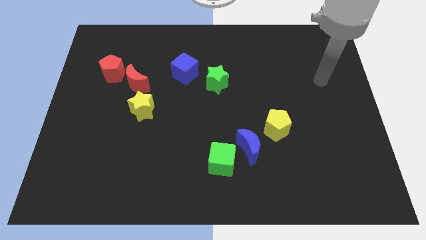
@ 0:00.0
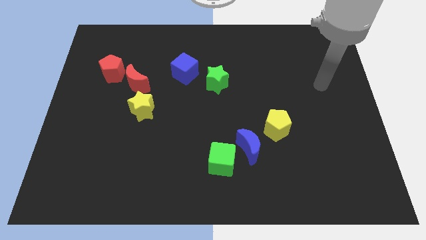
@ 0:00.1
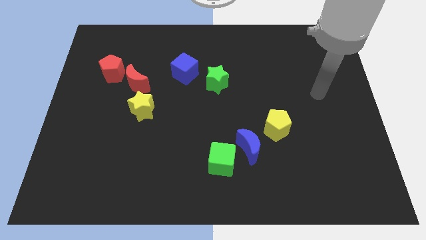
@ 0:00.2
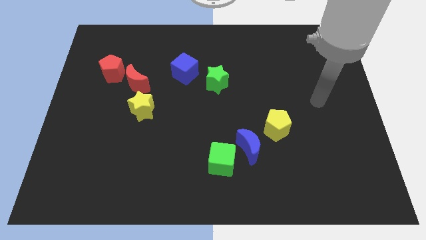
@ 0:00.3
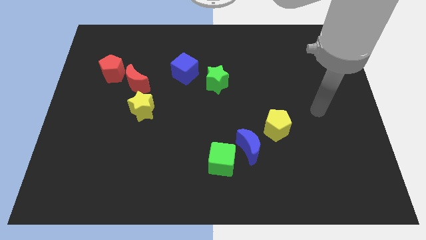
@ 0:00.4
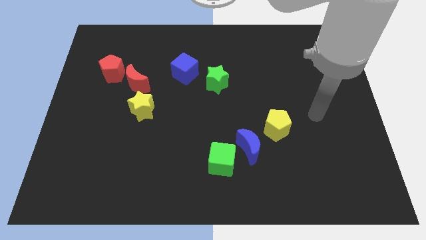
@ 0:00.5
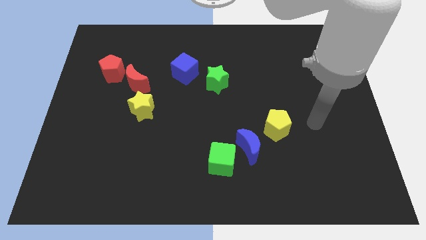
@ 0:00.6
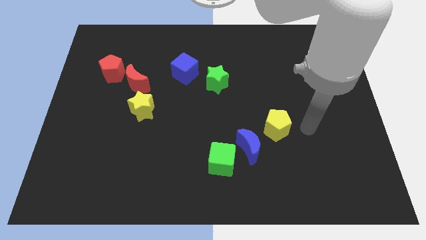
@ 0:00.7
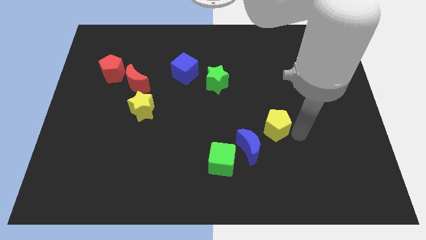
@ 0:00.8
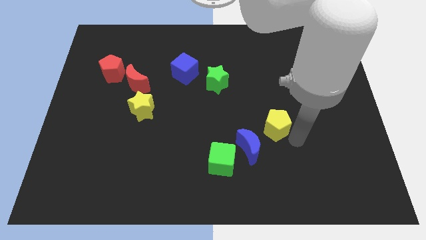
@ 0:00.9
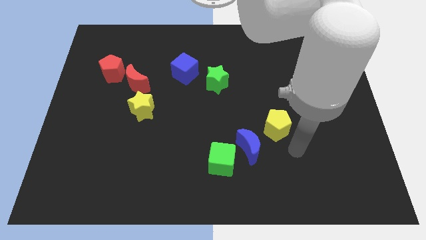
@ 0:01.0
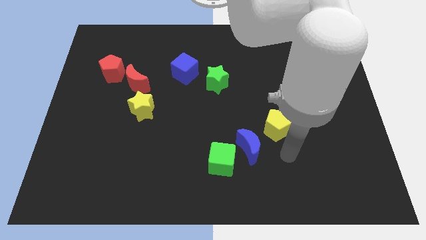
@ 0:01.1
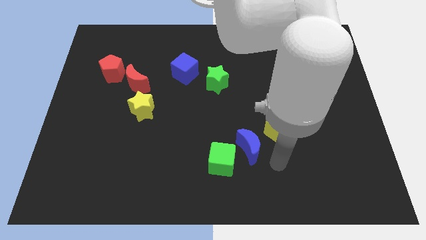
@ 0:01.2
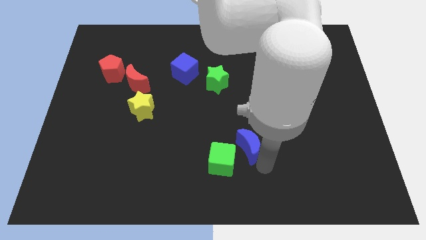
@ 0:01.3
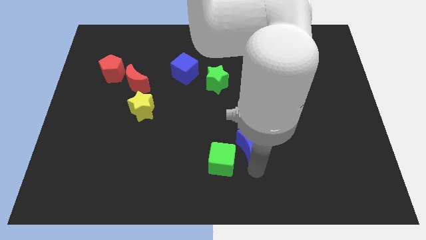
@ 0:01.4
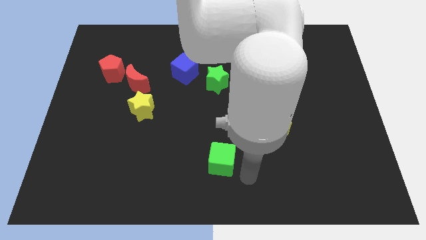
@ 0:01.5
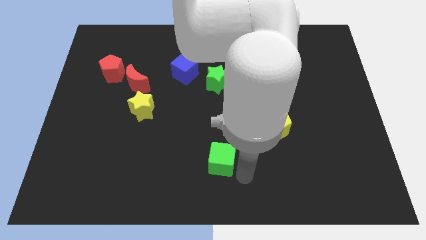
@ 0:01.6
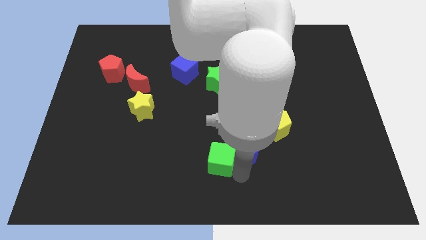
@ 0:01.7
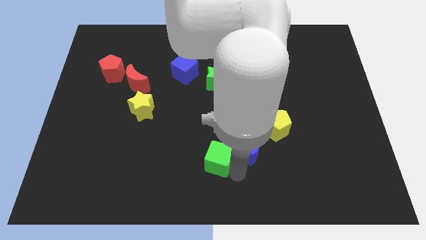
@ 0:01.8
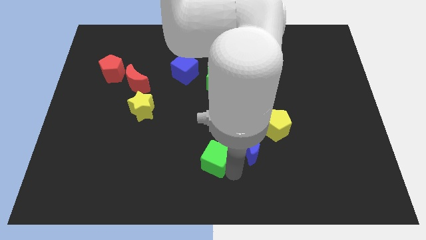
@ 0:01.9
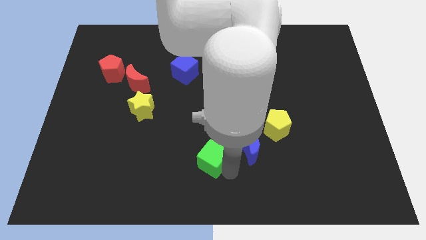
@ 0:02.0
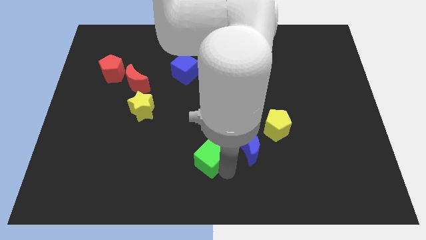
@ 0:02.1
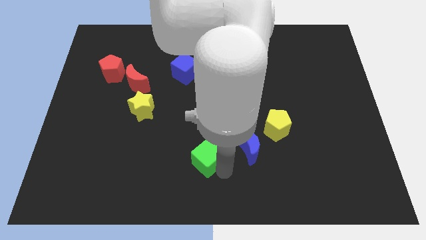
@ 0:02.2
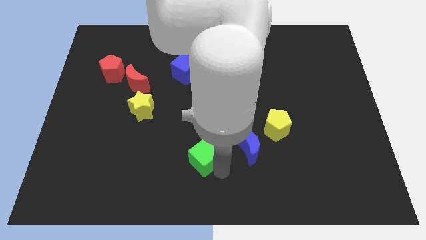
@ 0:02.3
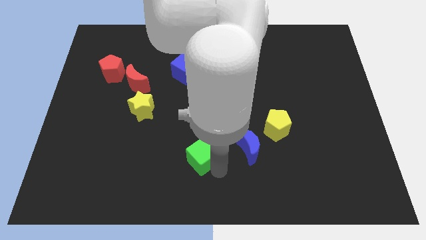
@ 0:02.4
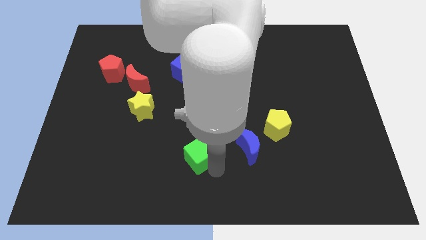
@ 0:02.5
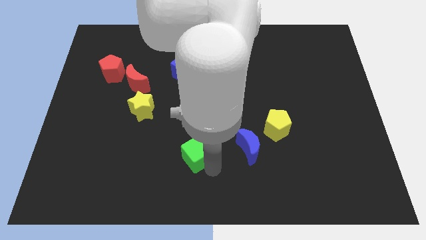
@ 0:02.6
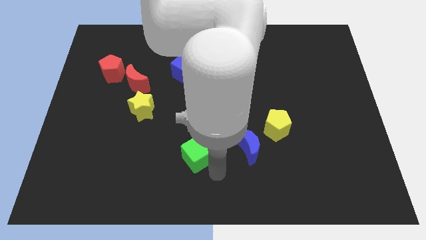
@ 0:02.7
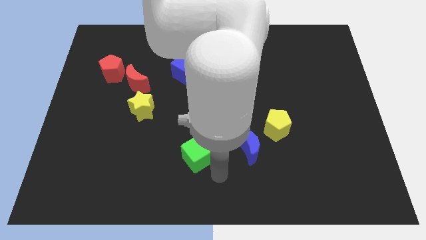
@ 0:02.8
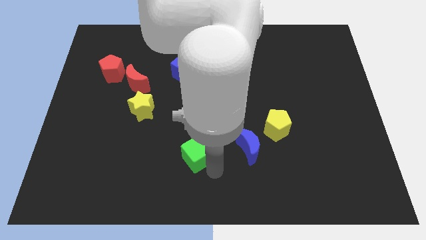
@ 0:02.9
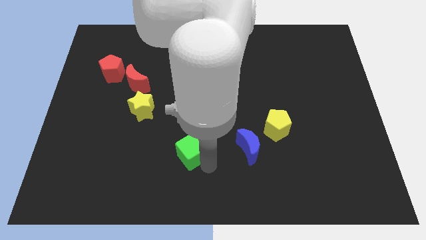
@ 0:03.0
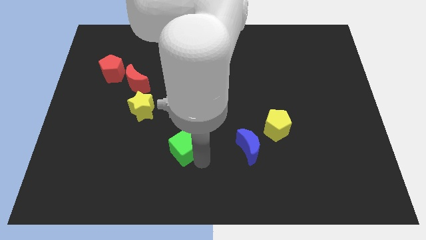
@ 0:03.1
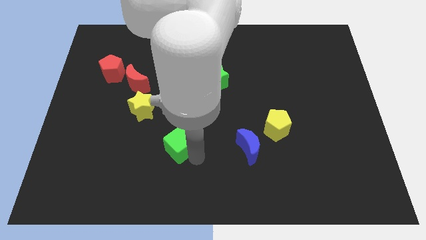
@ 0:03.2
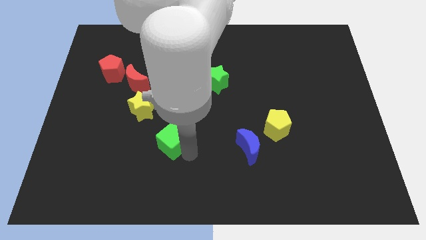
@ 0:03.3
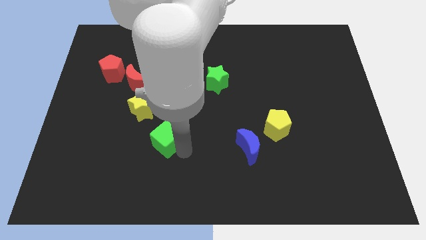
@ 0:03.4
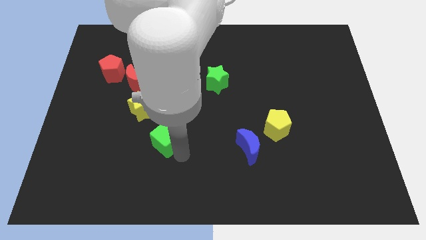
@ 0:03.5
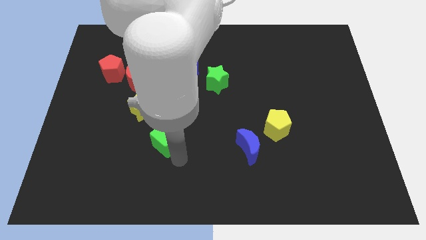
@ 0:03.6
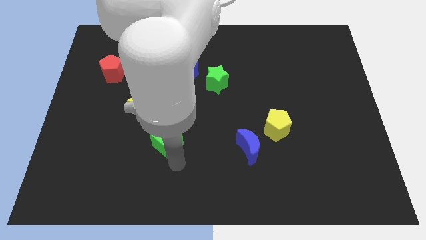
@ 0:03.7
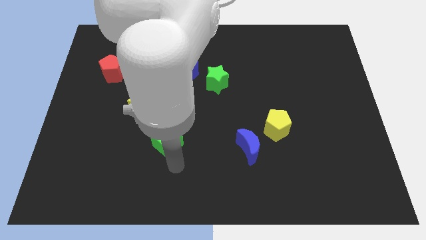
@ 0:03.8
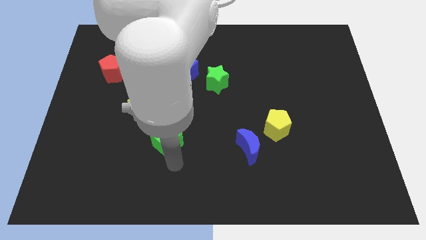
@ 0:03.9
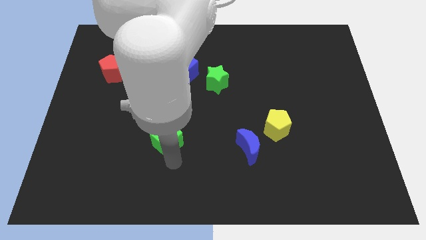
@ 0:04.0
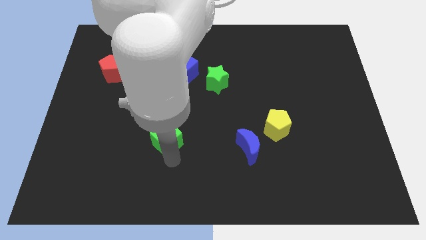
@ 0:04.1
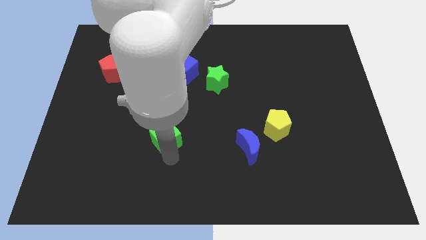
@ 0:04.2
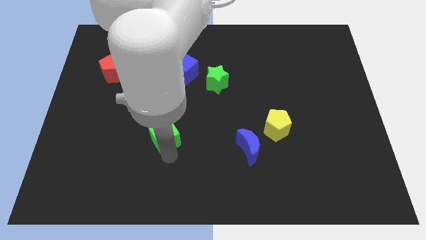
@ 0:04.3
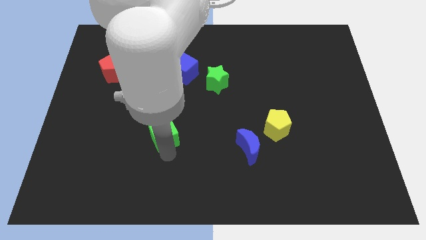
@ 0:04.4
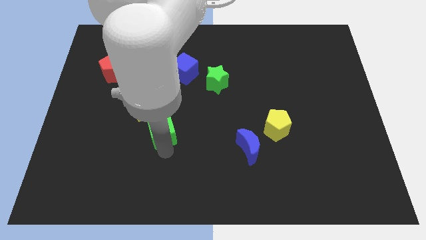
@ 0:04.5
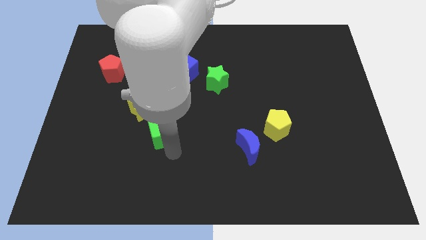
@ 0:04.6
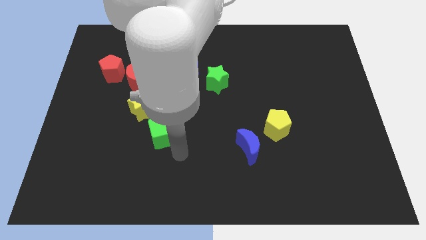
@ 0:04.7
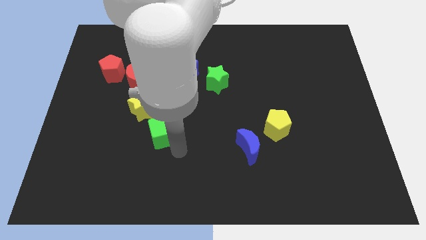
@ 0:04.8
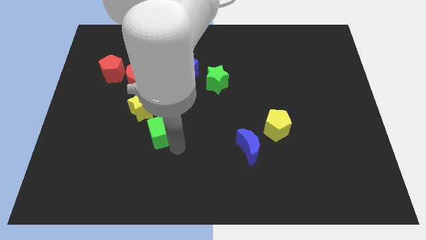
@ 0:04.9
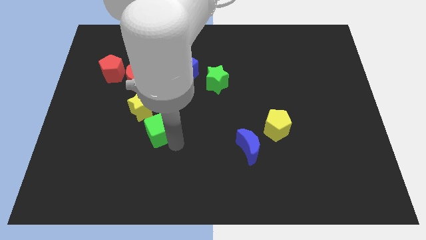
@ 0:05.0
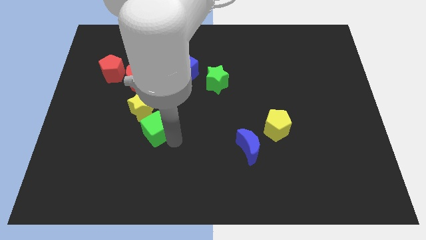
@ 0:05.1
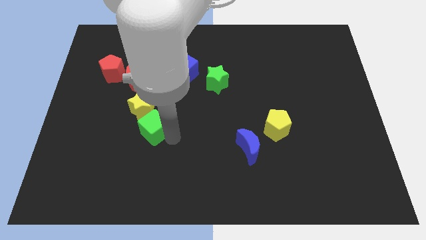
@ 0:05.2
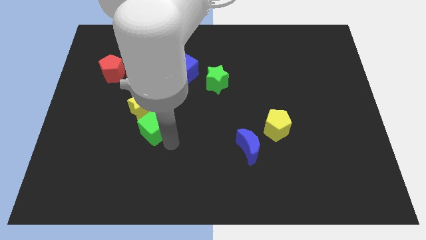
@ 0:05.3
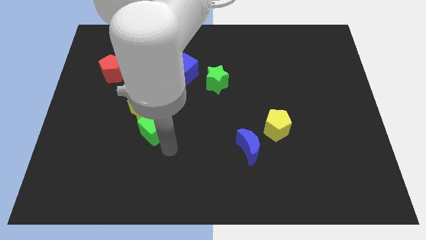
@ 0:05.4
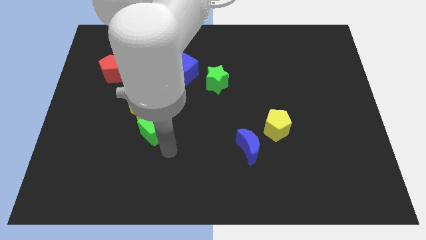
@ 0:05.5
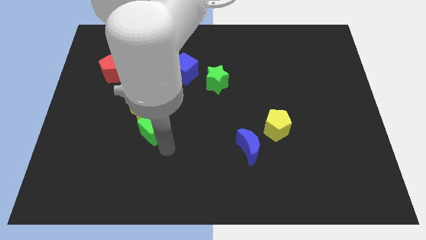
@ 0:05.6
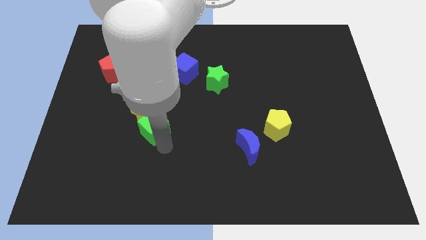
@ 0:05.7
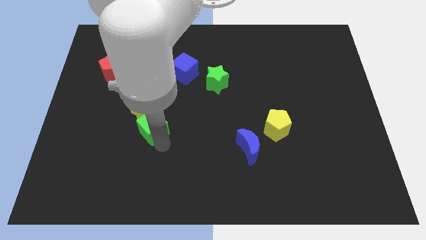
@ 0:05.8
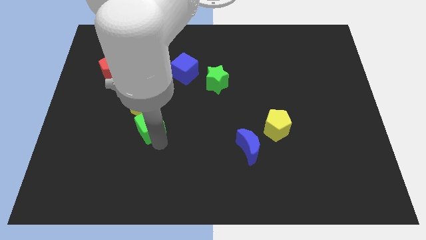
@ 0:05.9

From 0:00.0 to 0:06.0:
put the green cube close to the yellow star

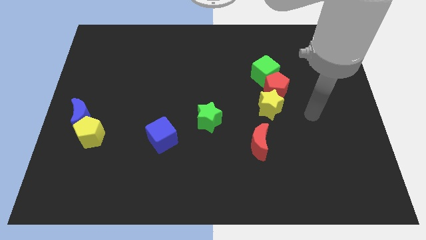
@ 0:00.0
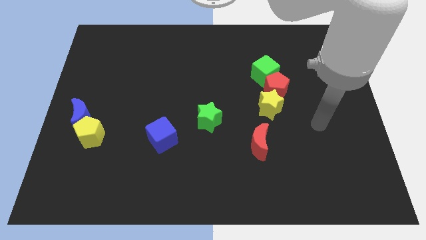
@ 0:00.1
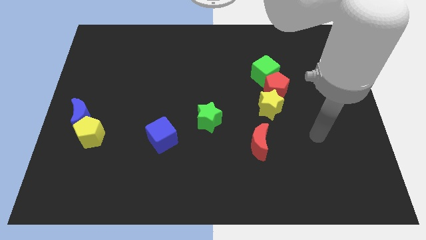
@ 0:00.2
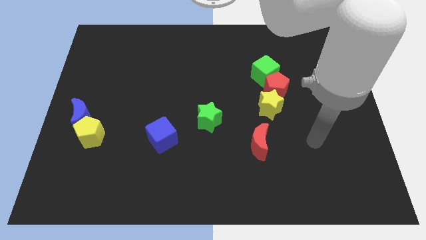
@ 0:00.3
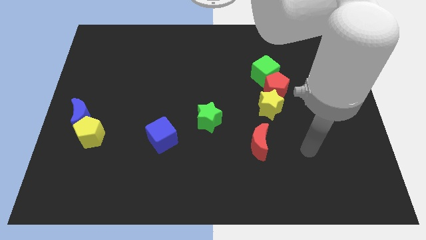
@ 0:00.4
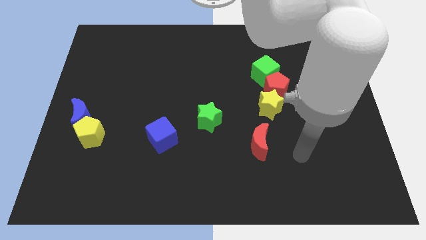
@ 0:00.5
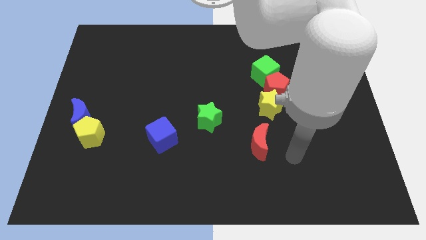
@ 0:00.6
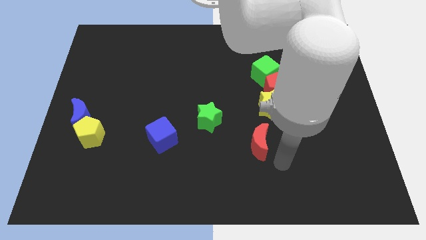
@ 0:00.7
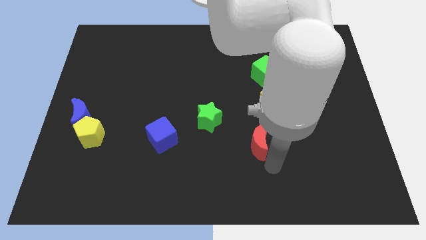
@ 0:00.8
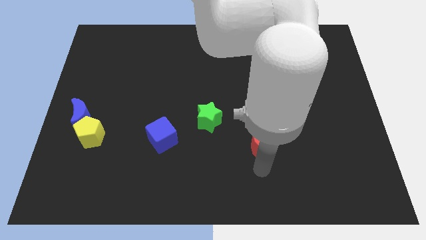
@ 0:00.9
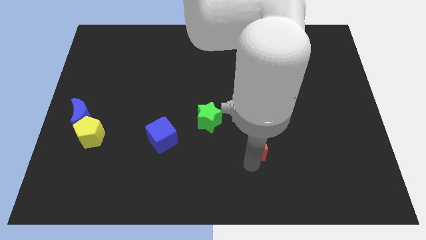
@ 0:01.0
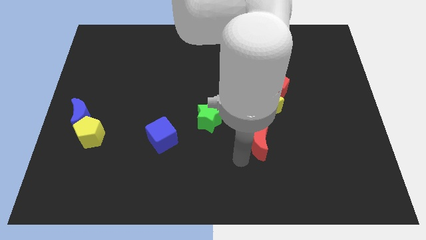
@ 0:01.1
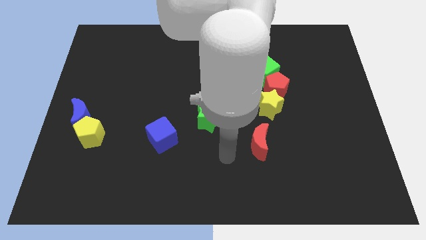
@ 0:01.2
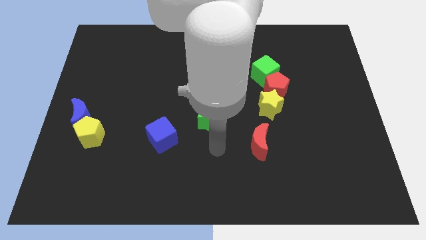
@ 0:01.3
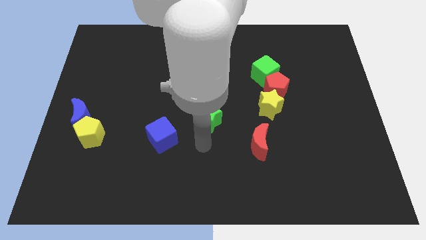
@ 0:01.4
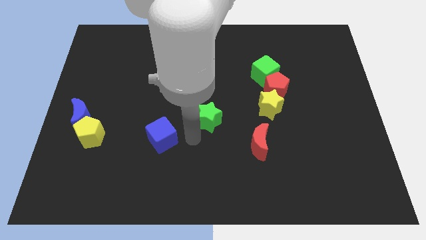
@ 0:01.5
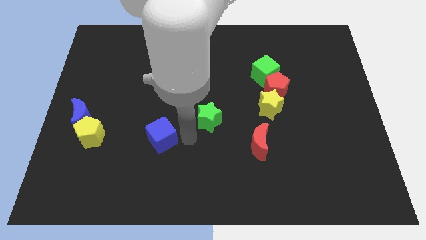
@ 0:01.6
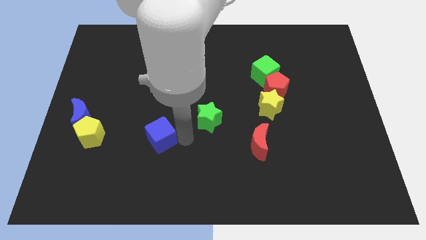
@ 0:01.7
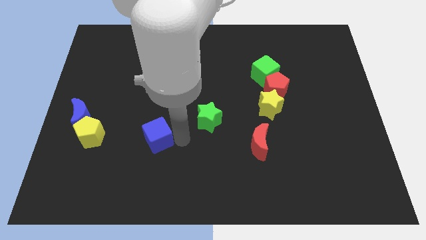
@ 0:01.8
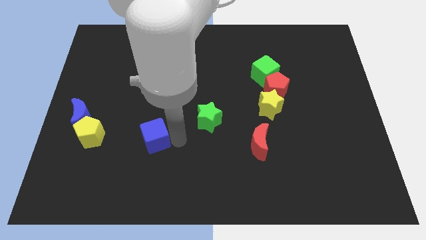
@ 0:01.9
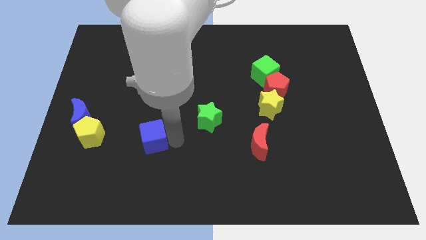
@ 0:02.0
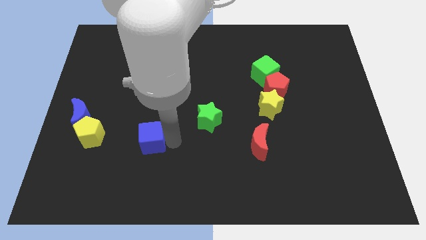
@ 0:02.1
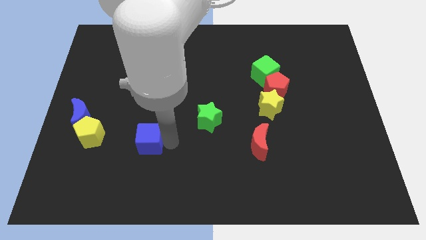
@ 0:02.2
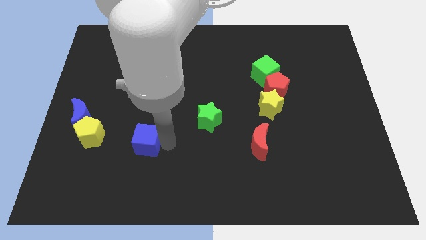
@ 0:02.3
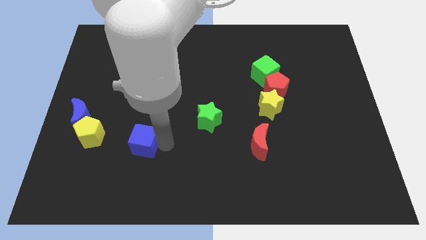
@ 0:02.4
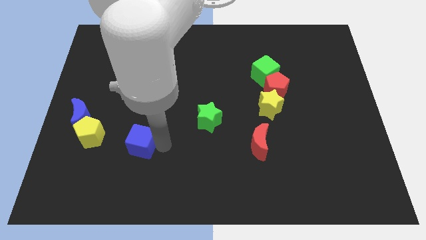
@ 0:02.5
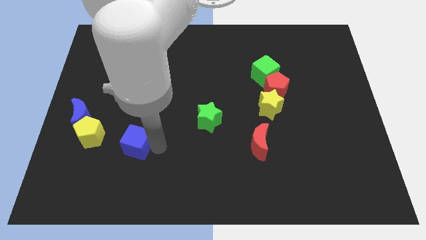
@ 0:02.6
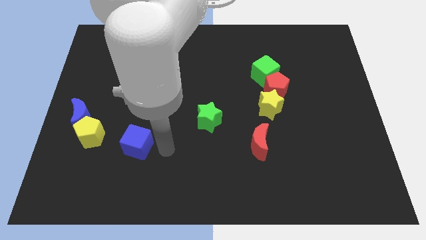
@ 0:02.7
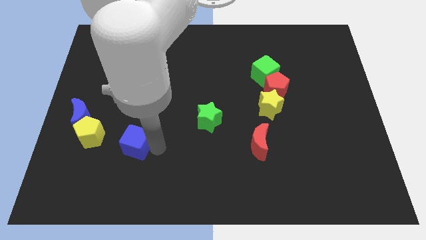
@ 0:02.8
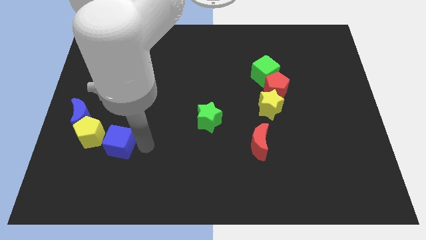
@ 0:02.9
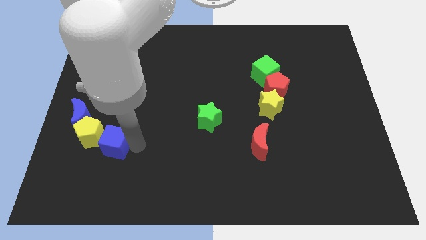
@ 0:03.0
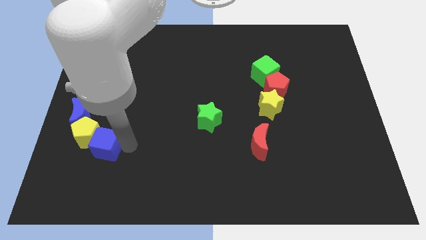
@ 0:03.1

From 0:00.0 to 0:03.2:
move the blue cube next to the yellow pentagon
